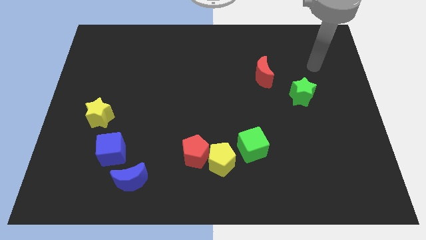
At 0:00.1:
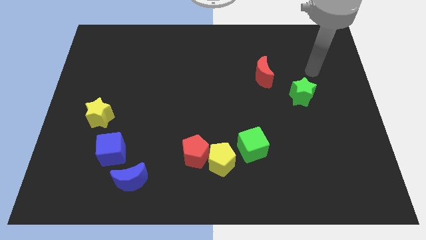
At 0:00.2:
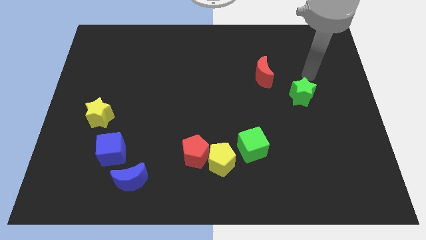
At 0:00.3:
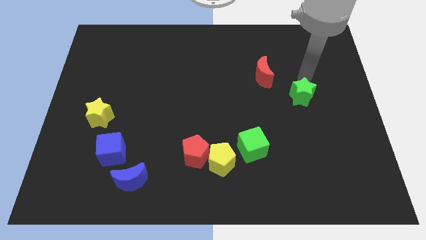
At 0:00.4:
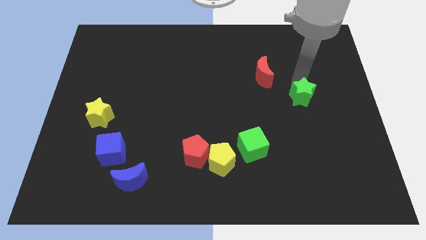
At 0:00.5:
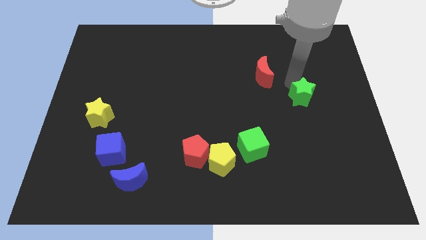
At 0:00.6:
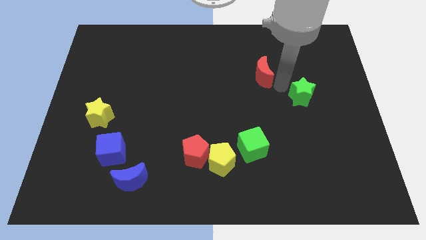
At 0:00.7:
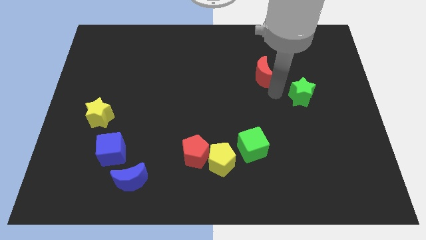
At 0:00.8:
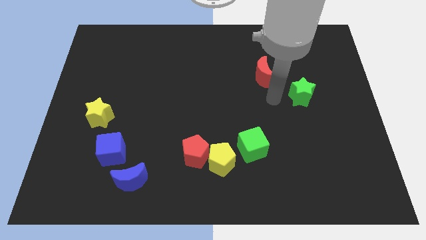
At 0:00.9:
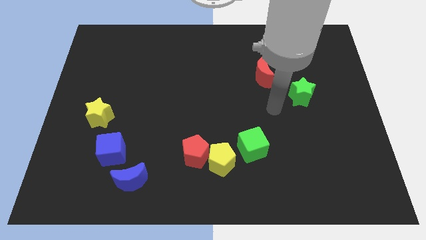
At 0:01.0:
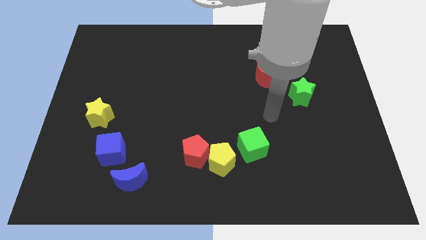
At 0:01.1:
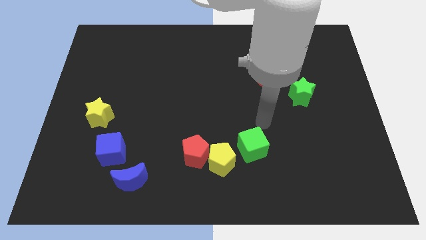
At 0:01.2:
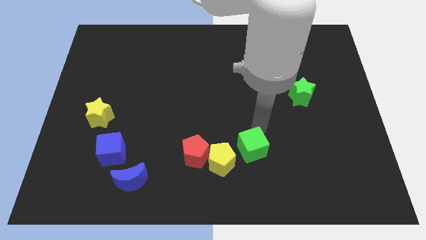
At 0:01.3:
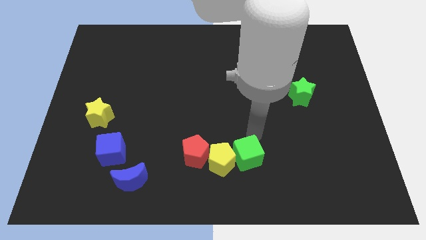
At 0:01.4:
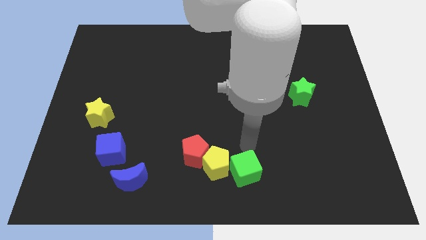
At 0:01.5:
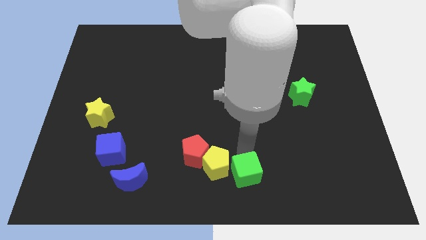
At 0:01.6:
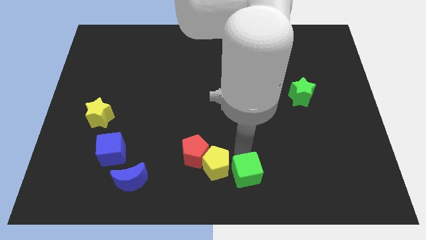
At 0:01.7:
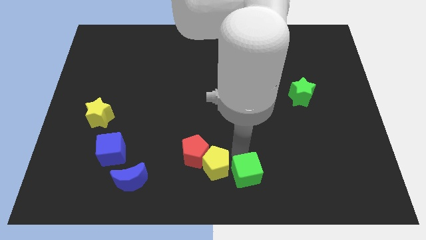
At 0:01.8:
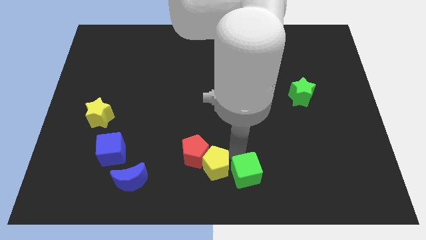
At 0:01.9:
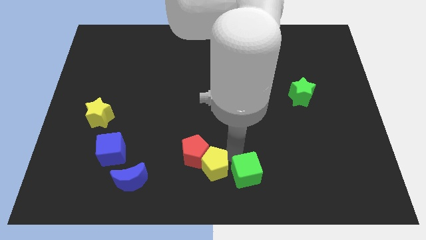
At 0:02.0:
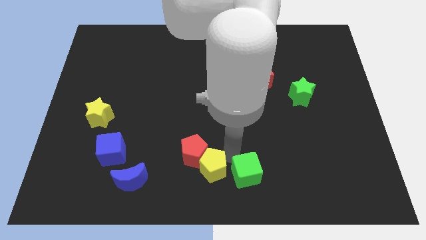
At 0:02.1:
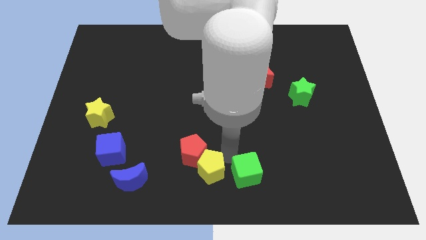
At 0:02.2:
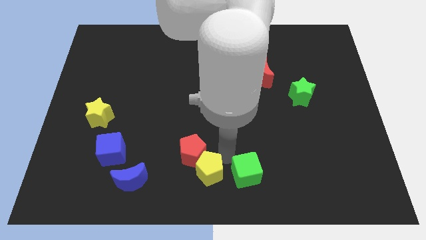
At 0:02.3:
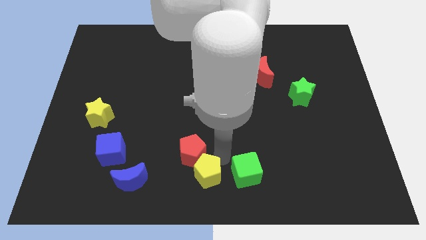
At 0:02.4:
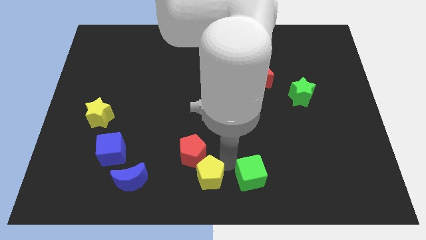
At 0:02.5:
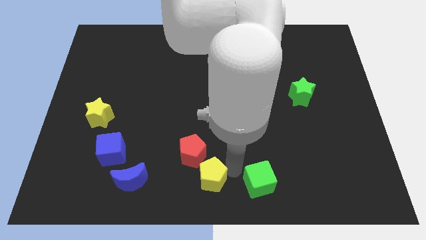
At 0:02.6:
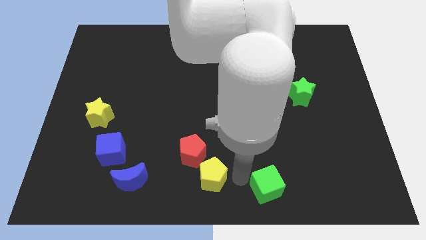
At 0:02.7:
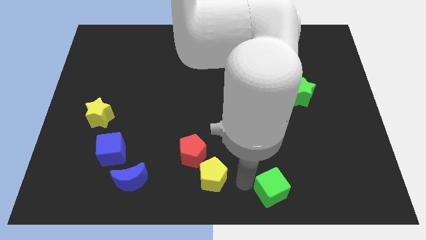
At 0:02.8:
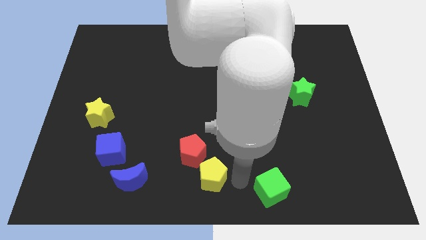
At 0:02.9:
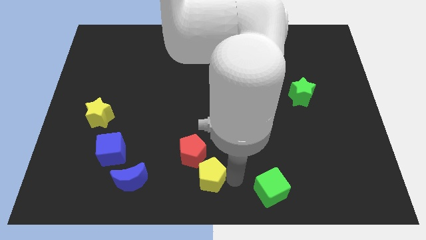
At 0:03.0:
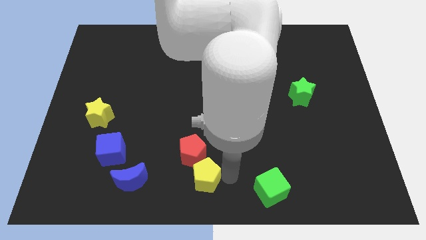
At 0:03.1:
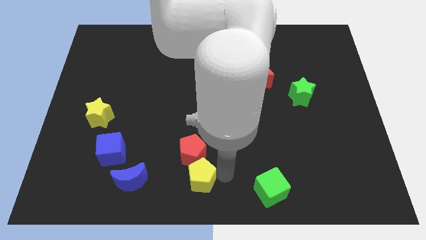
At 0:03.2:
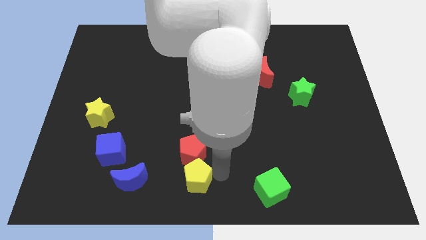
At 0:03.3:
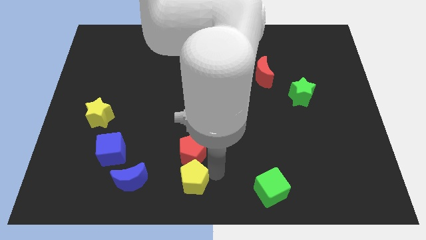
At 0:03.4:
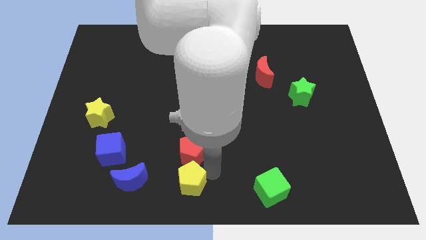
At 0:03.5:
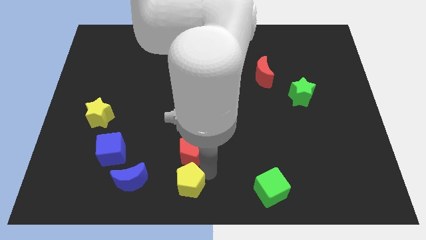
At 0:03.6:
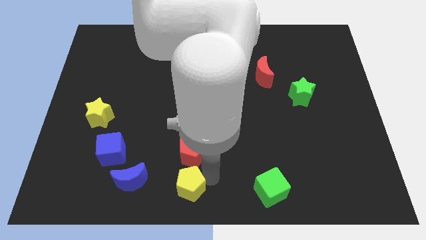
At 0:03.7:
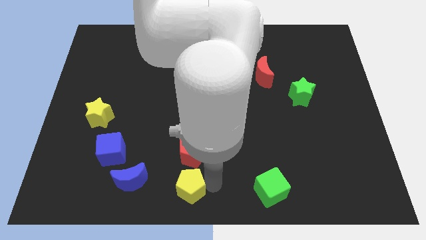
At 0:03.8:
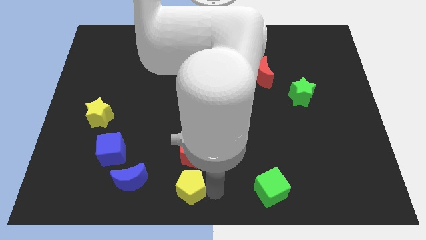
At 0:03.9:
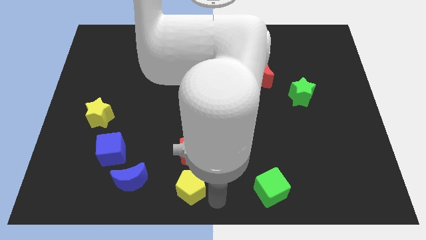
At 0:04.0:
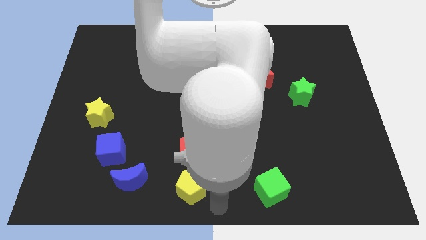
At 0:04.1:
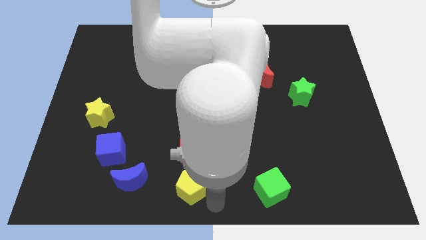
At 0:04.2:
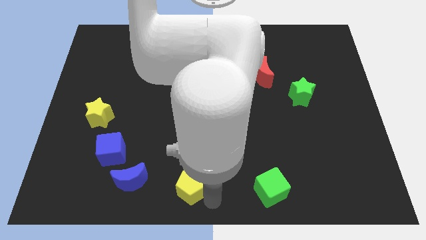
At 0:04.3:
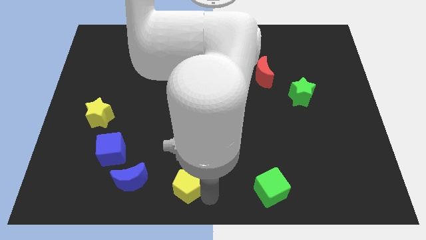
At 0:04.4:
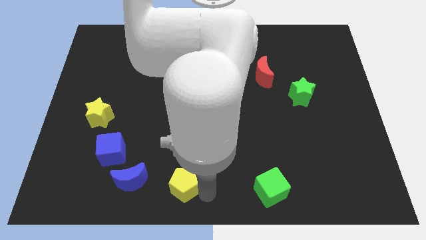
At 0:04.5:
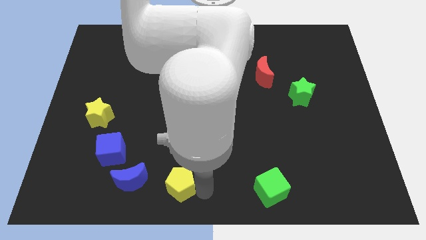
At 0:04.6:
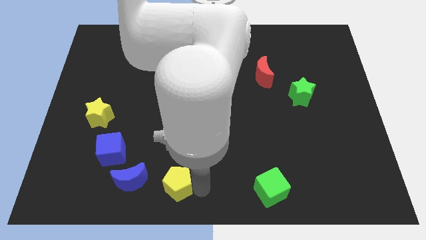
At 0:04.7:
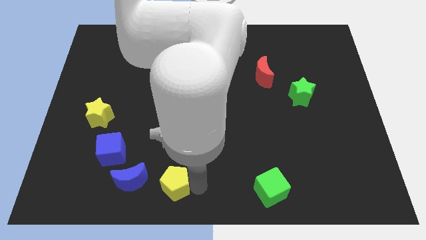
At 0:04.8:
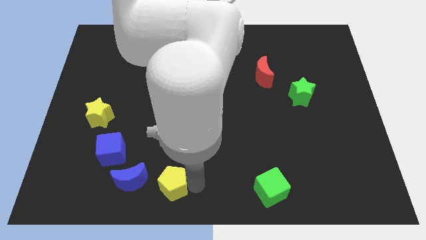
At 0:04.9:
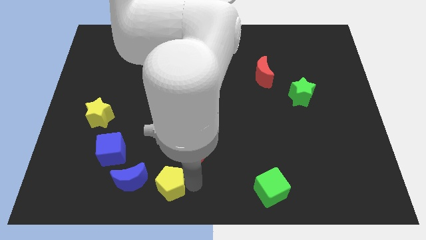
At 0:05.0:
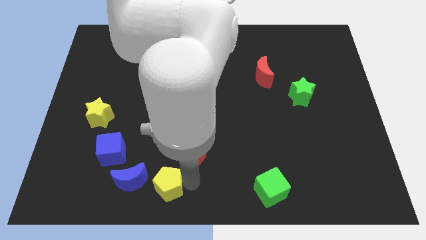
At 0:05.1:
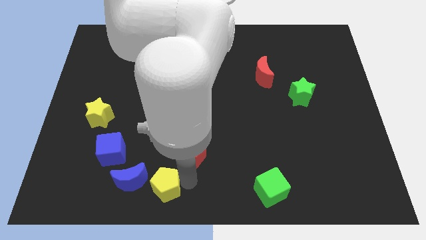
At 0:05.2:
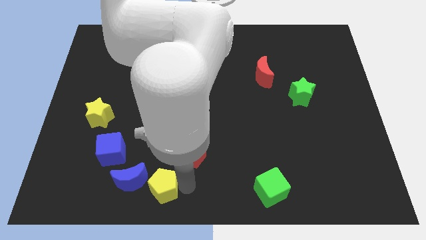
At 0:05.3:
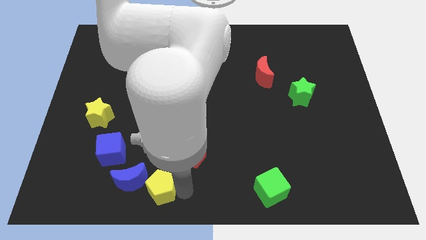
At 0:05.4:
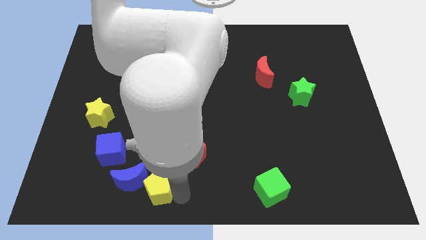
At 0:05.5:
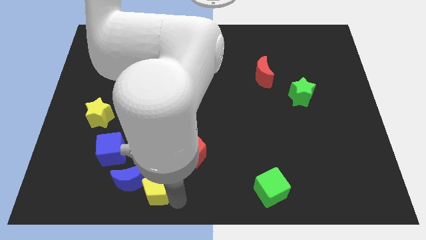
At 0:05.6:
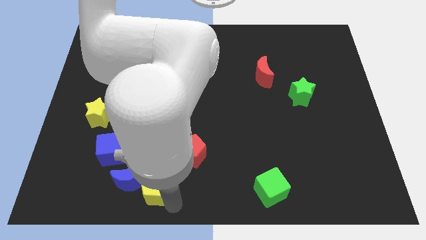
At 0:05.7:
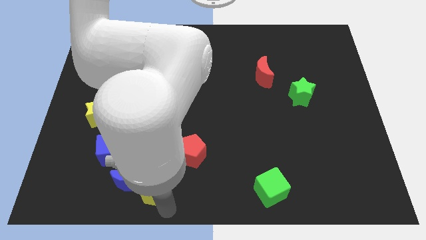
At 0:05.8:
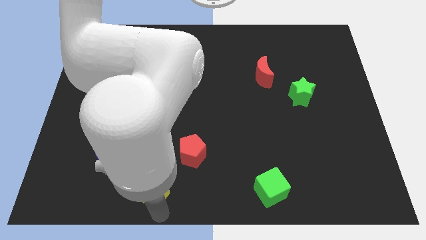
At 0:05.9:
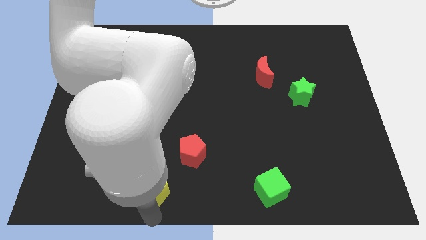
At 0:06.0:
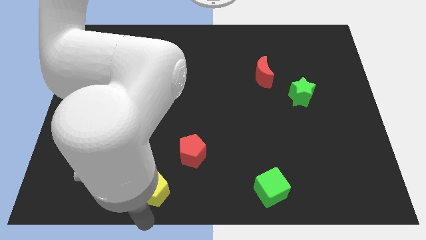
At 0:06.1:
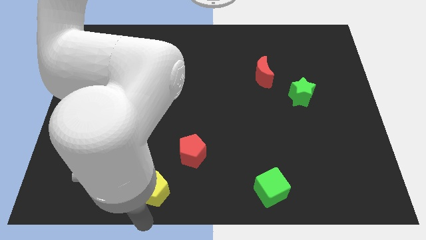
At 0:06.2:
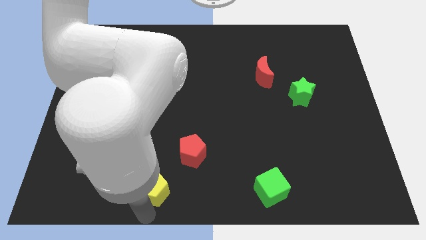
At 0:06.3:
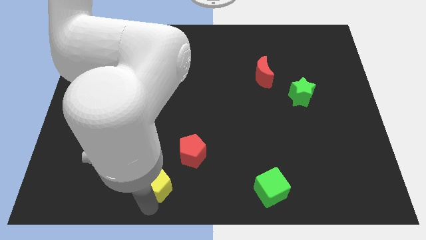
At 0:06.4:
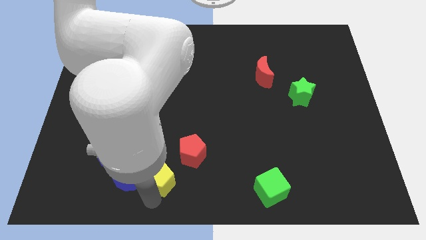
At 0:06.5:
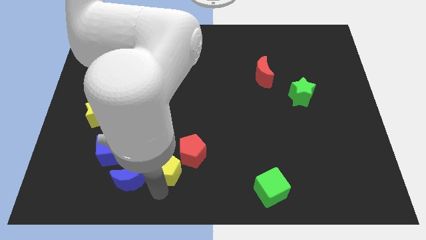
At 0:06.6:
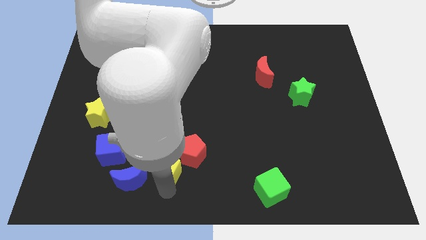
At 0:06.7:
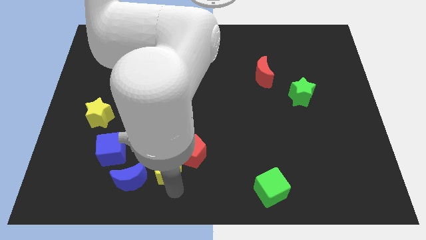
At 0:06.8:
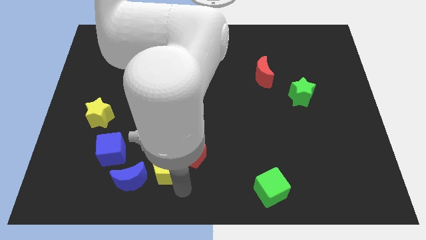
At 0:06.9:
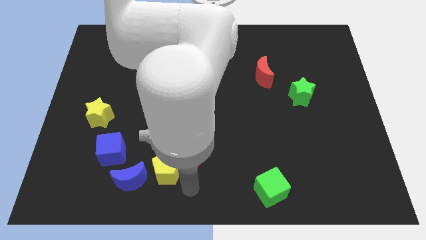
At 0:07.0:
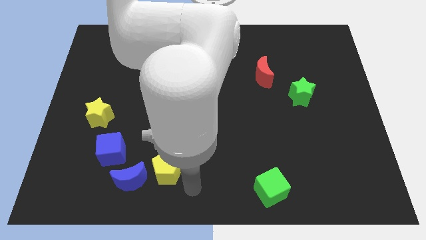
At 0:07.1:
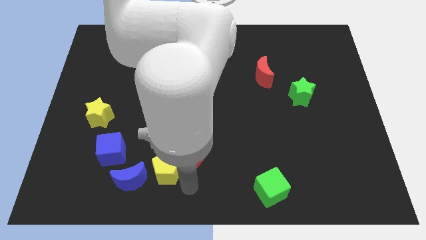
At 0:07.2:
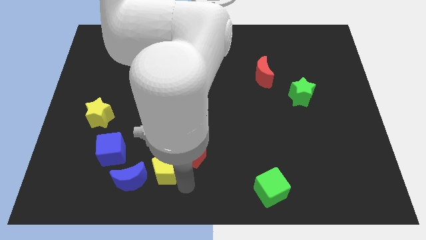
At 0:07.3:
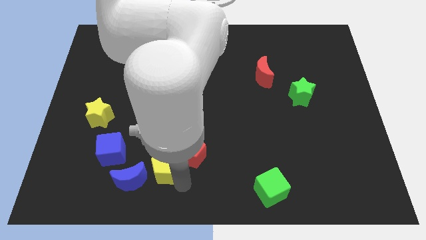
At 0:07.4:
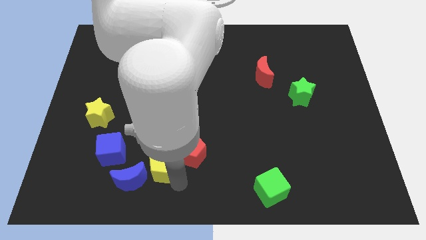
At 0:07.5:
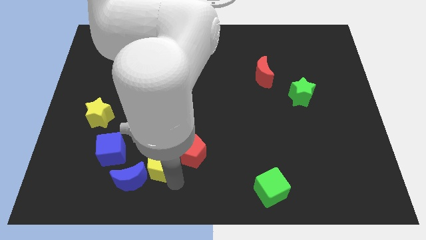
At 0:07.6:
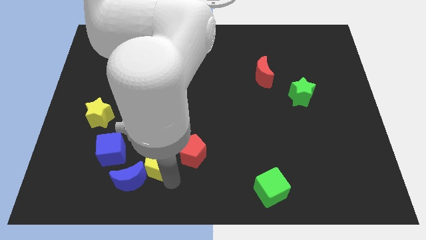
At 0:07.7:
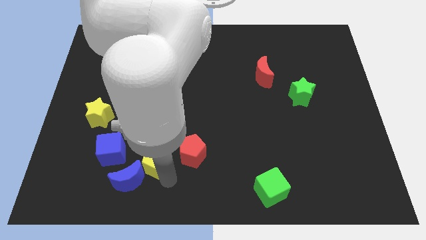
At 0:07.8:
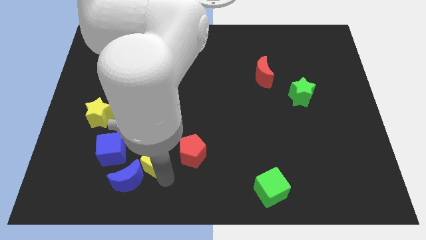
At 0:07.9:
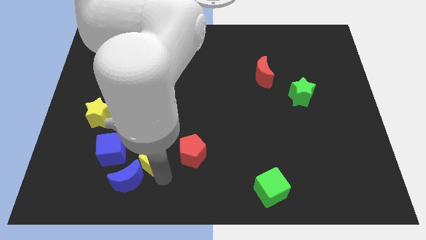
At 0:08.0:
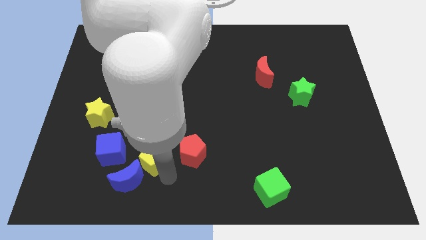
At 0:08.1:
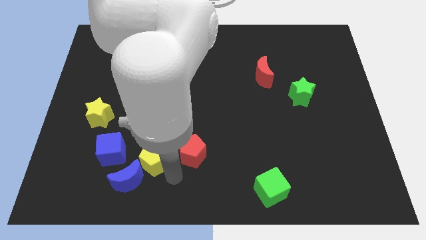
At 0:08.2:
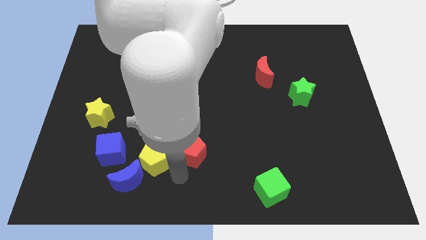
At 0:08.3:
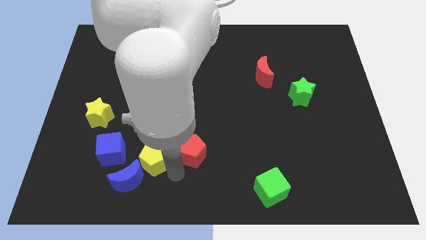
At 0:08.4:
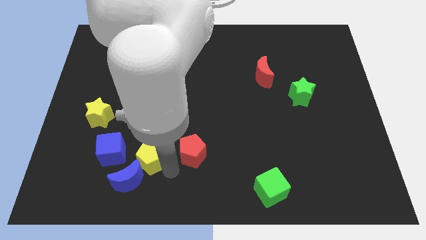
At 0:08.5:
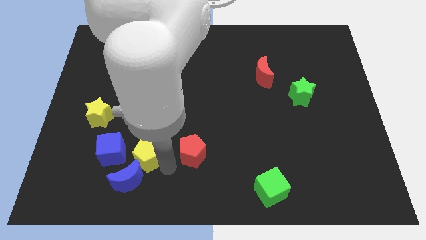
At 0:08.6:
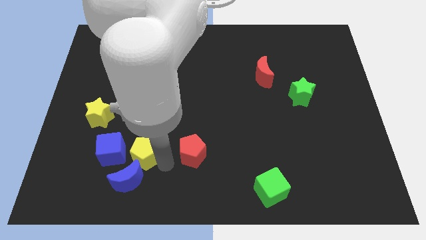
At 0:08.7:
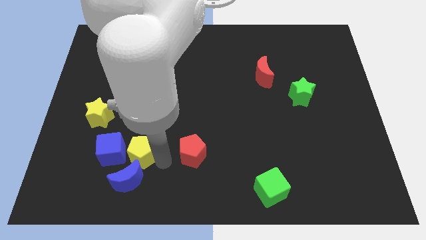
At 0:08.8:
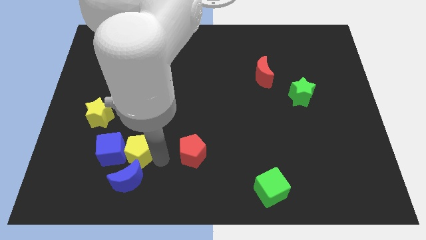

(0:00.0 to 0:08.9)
push the yellow pentagon to the blue cube
